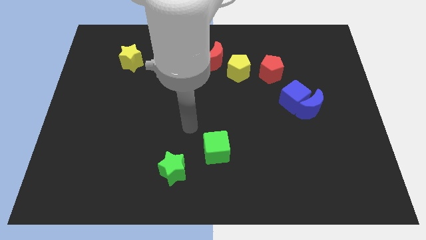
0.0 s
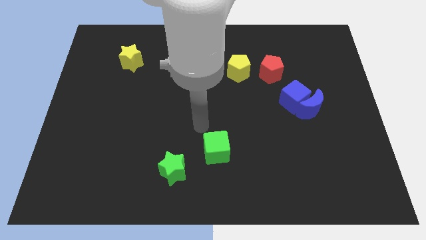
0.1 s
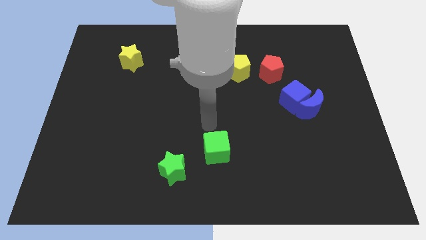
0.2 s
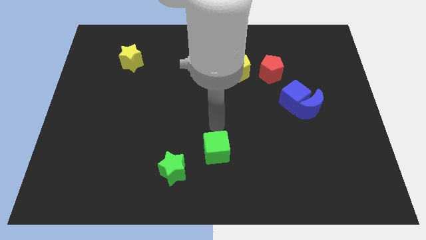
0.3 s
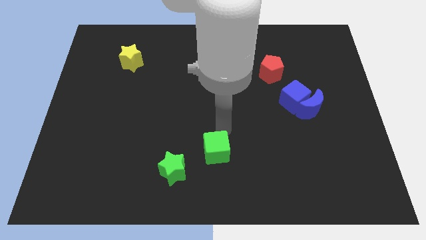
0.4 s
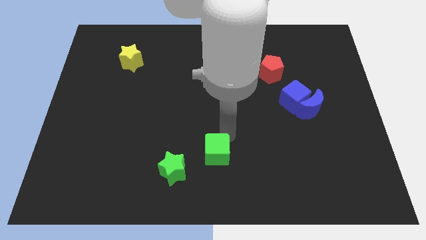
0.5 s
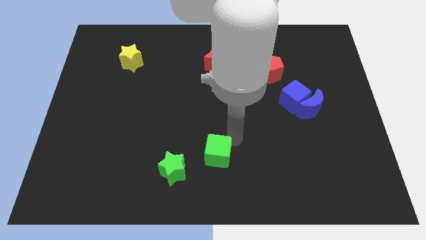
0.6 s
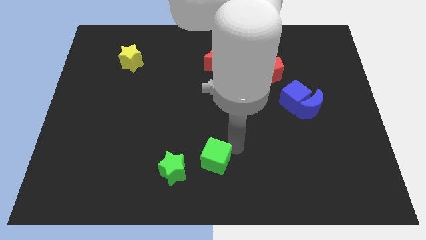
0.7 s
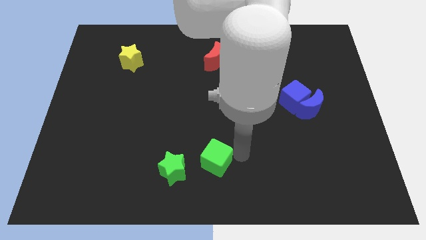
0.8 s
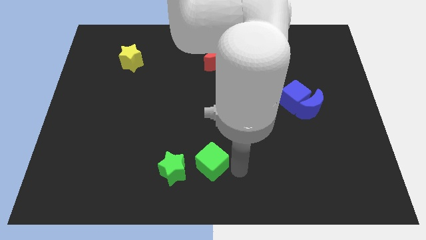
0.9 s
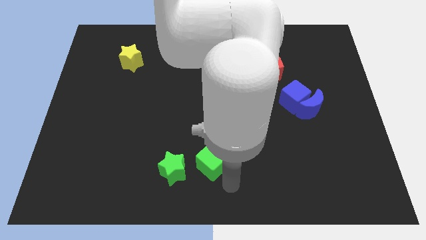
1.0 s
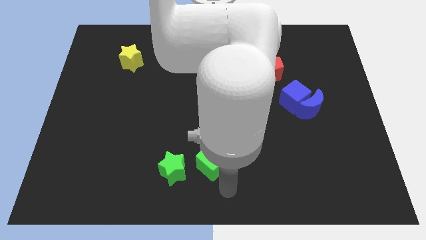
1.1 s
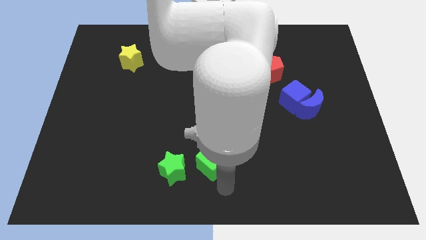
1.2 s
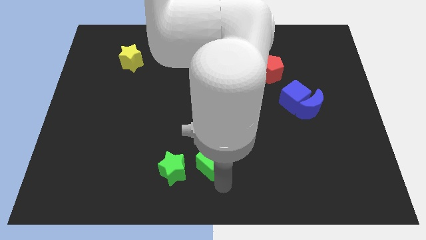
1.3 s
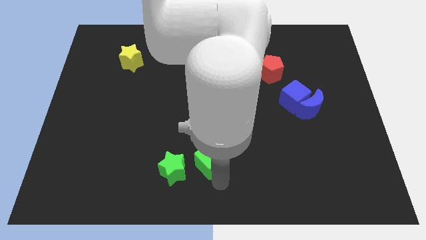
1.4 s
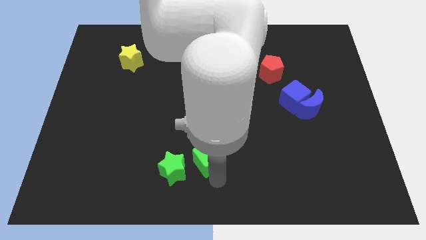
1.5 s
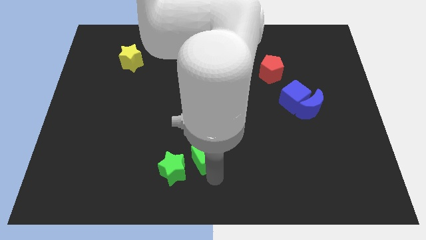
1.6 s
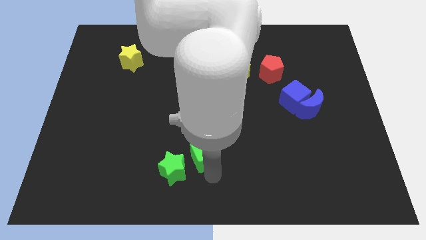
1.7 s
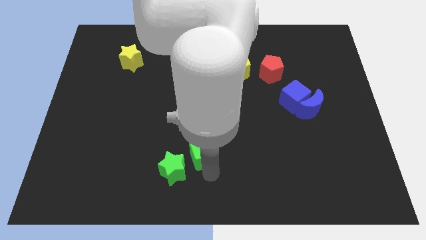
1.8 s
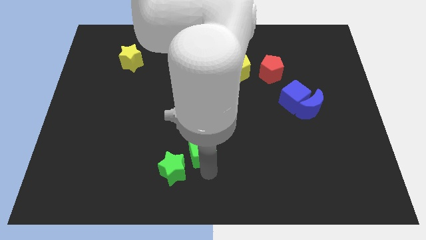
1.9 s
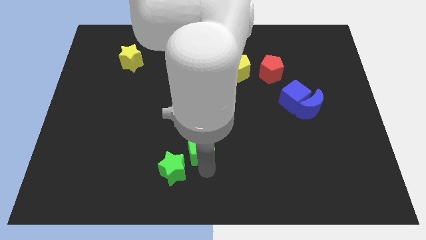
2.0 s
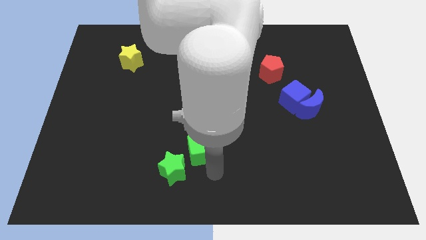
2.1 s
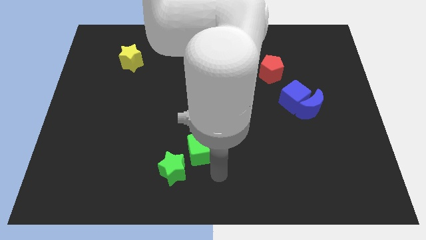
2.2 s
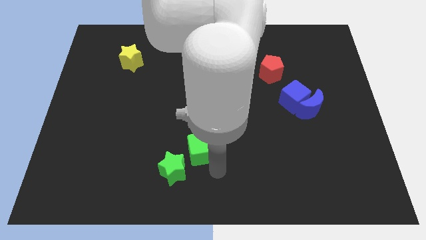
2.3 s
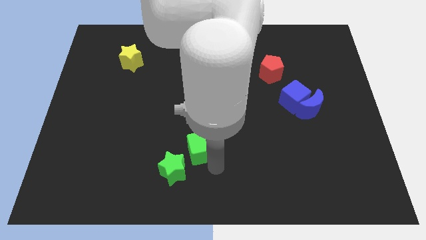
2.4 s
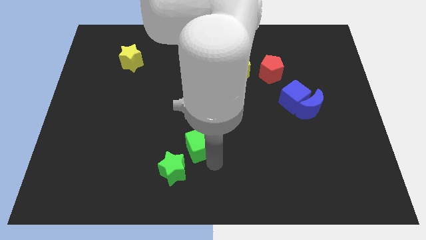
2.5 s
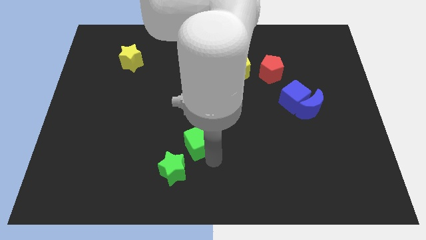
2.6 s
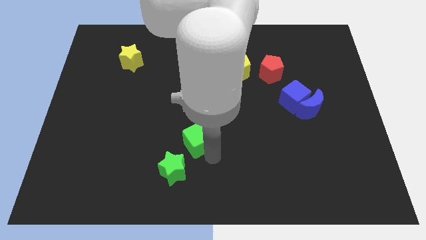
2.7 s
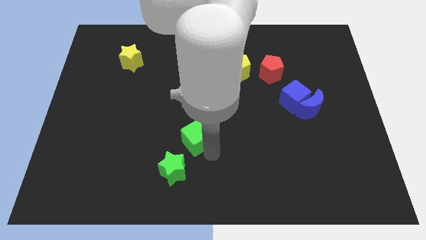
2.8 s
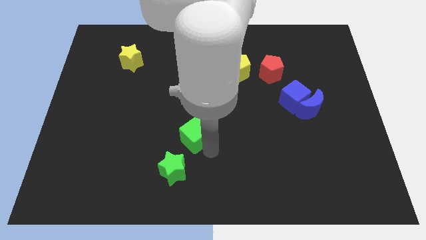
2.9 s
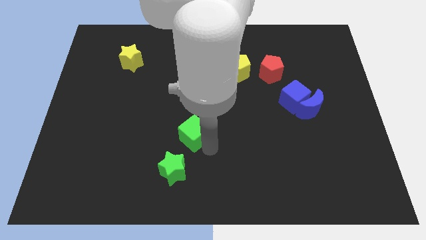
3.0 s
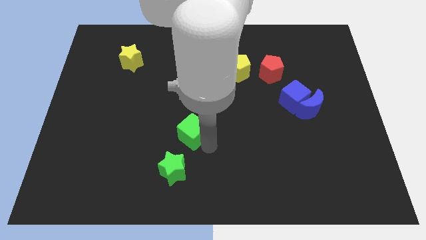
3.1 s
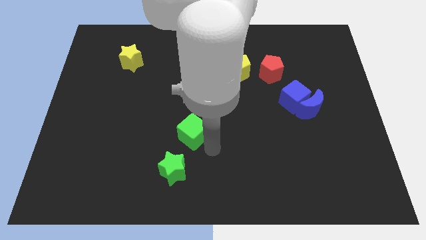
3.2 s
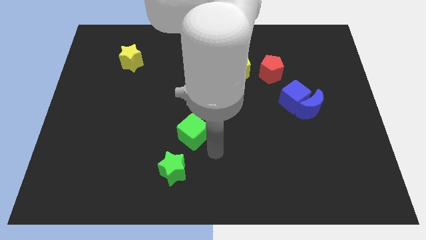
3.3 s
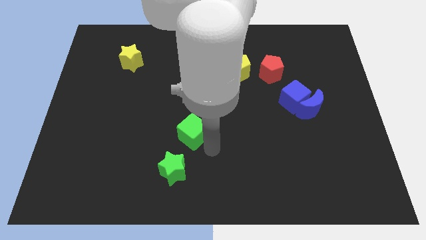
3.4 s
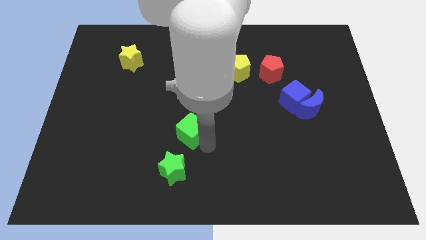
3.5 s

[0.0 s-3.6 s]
push the green cube a little upwards and then left

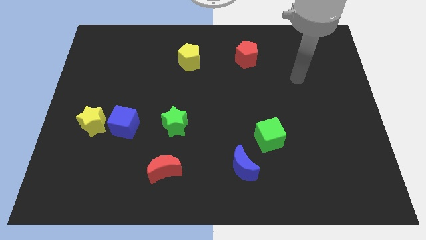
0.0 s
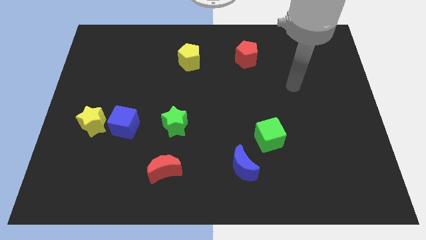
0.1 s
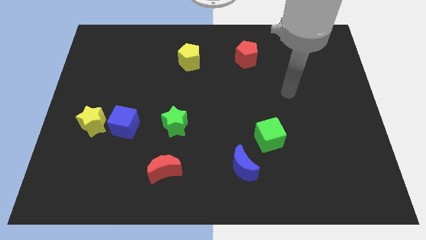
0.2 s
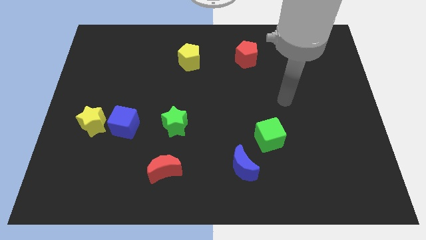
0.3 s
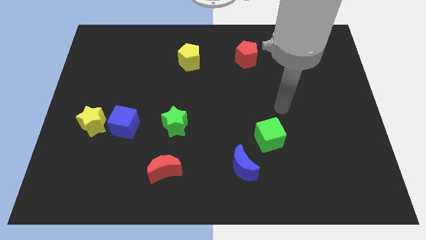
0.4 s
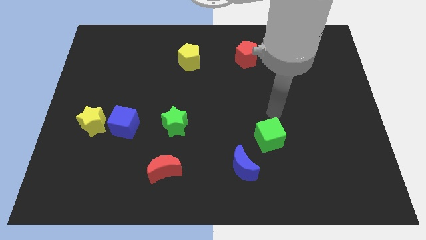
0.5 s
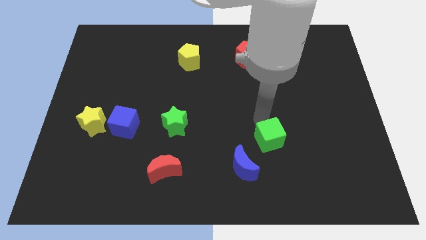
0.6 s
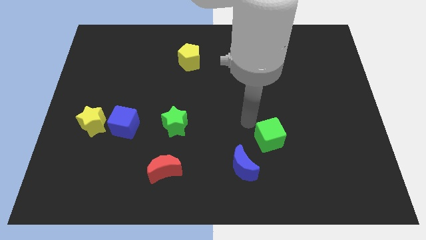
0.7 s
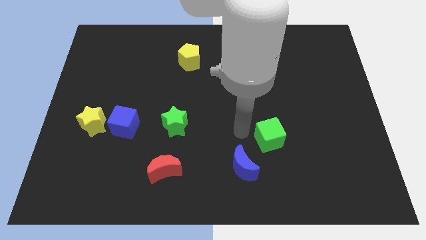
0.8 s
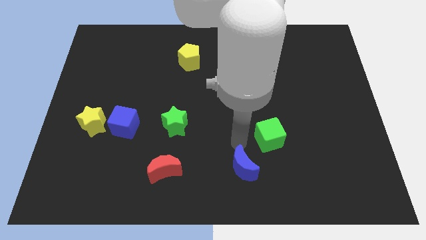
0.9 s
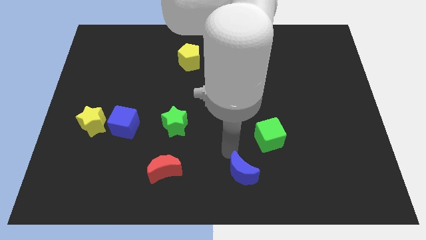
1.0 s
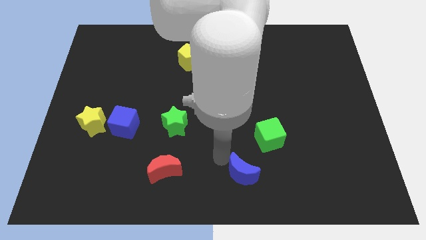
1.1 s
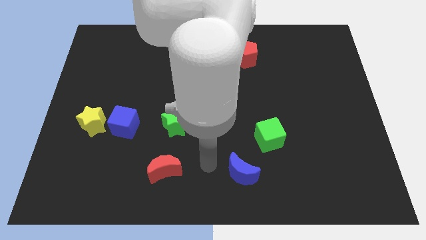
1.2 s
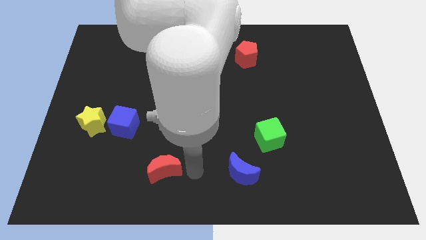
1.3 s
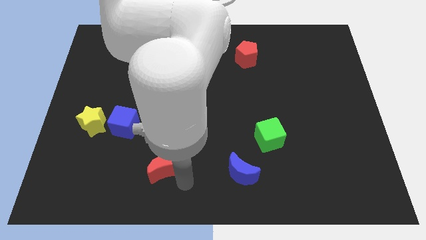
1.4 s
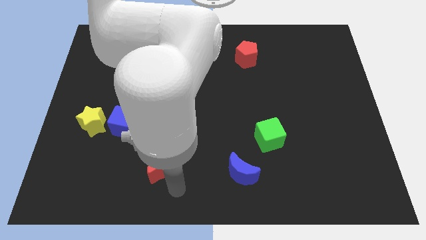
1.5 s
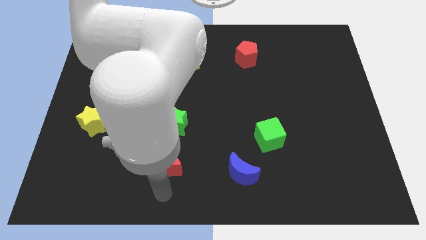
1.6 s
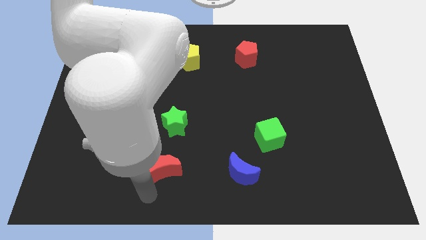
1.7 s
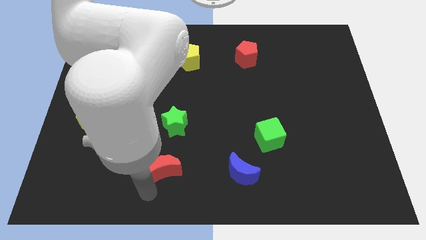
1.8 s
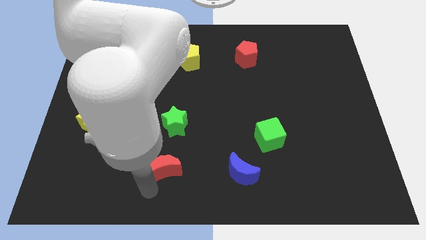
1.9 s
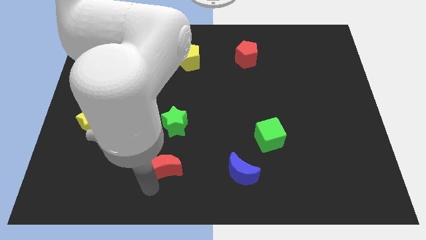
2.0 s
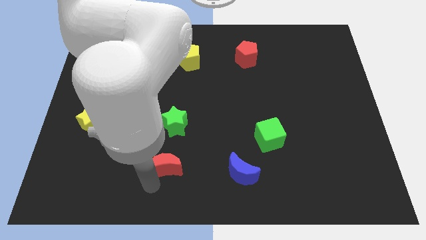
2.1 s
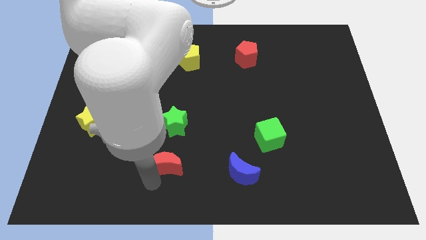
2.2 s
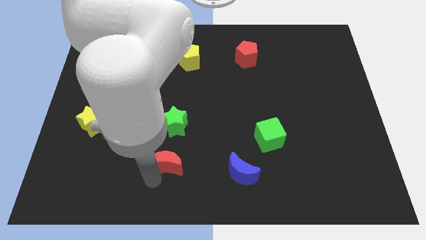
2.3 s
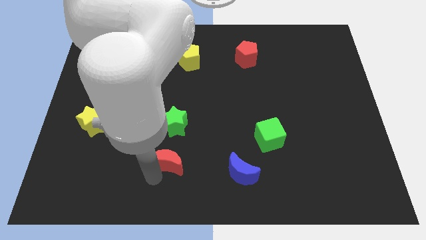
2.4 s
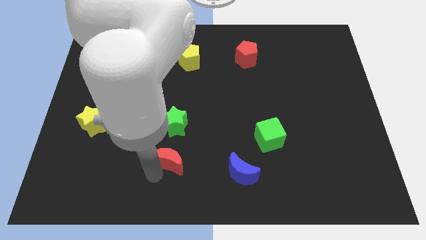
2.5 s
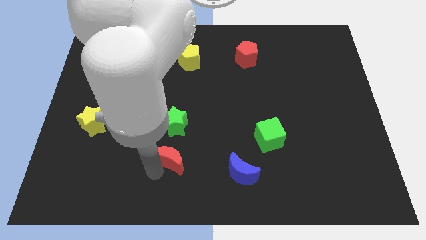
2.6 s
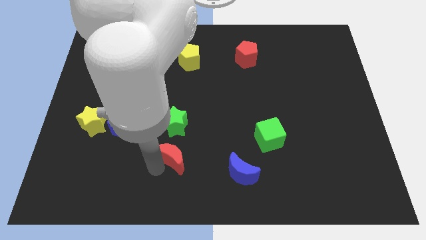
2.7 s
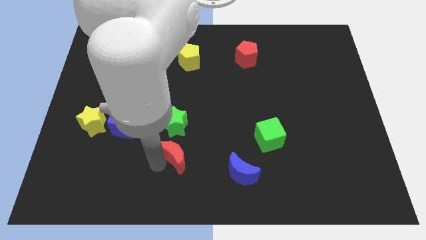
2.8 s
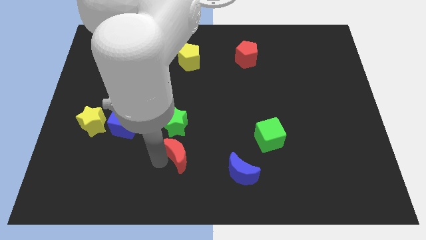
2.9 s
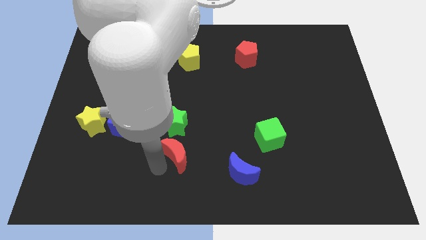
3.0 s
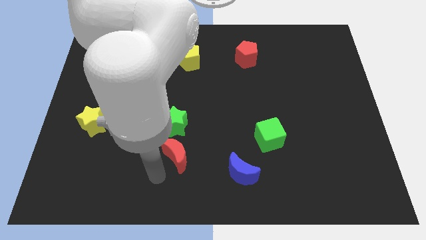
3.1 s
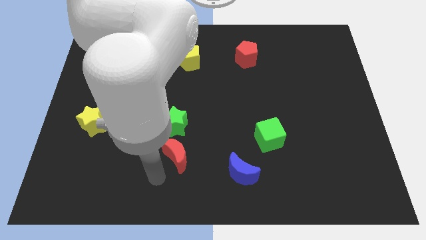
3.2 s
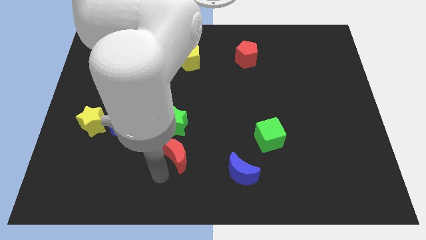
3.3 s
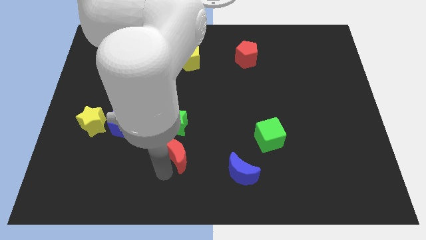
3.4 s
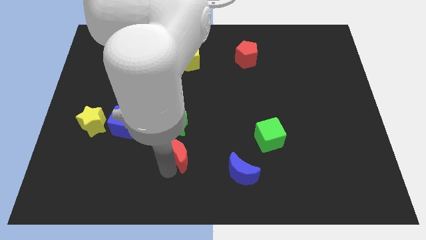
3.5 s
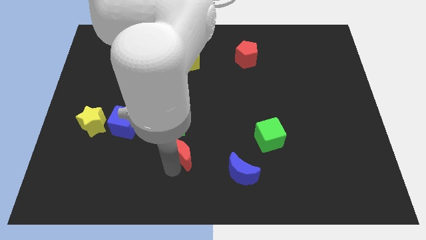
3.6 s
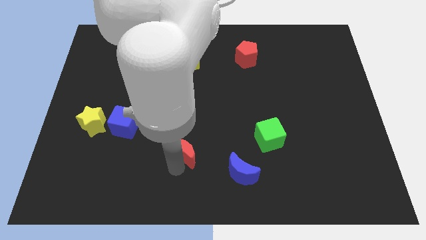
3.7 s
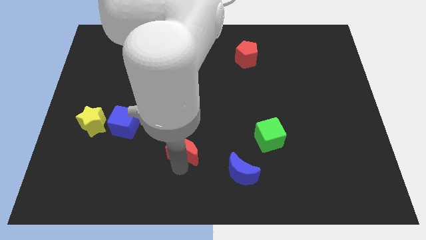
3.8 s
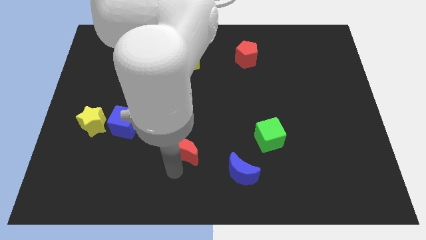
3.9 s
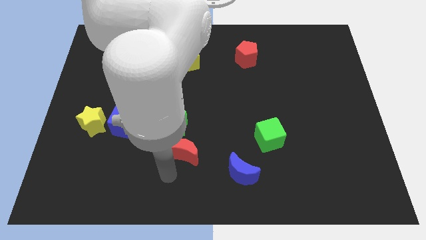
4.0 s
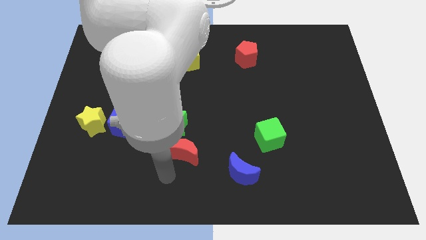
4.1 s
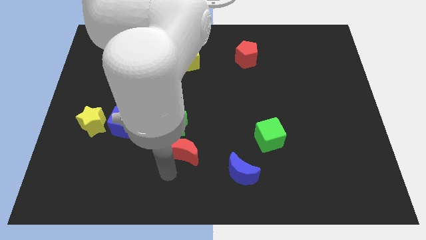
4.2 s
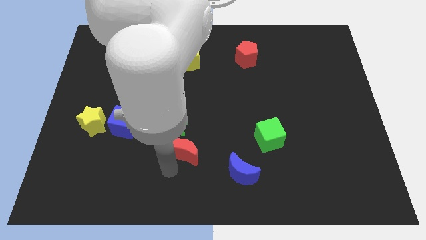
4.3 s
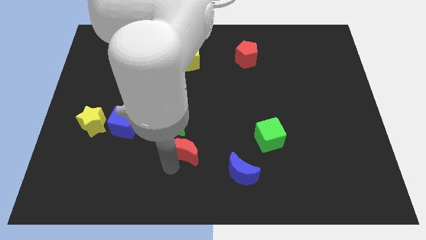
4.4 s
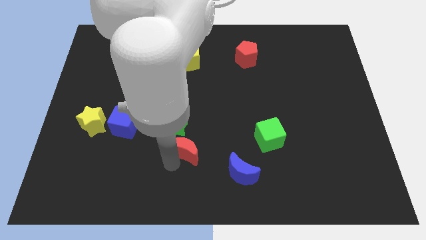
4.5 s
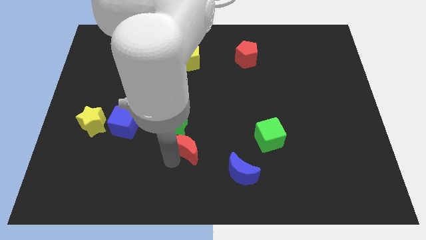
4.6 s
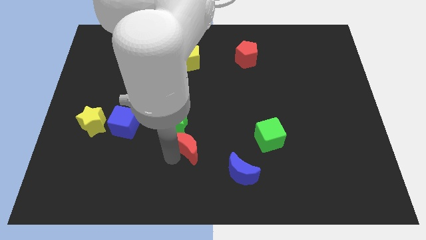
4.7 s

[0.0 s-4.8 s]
slightly push the red moon upwards and to the right
